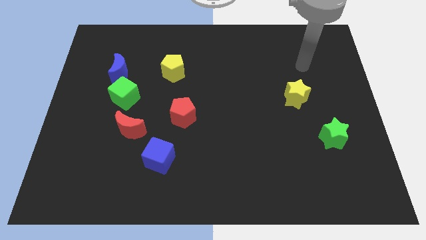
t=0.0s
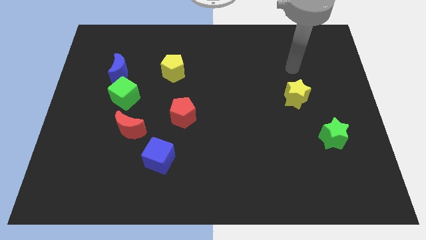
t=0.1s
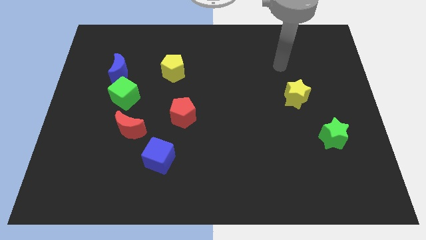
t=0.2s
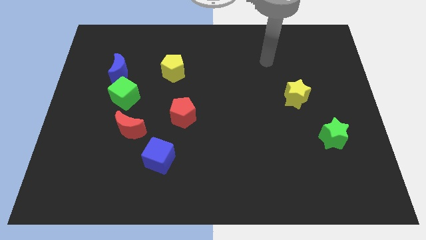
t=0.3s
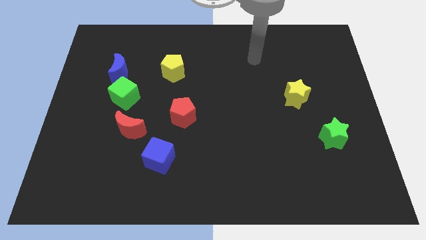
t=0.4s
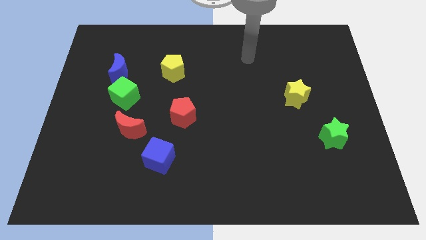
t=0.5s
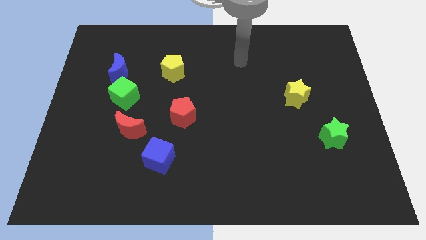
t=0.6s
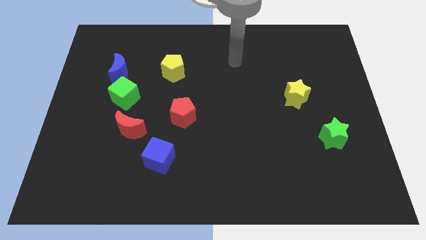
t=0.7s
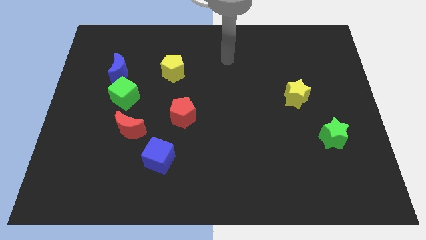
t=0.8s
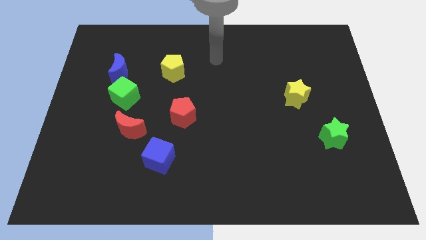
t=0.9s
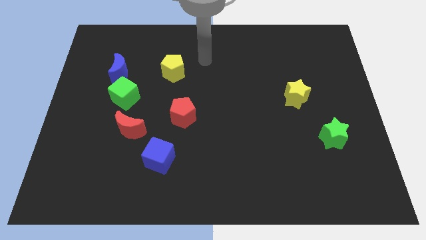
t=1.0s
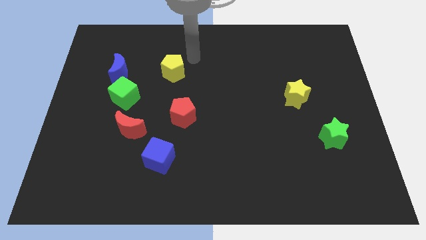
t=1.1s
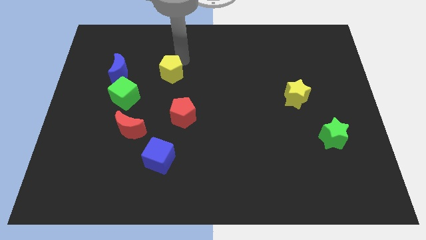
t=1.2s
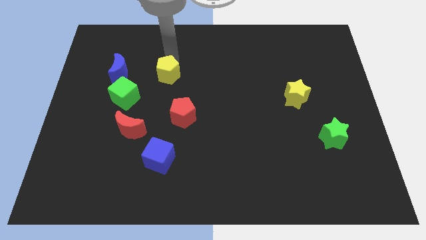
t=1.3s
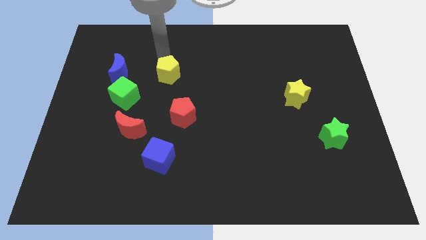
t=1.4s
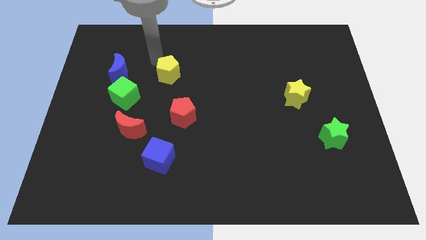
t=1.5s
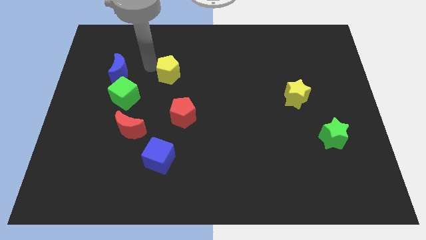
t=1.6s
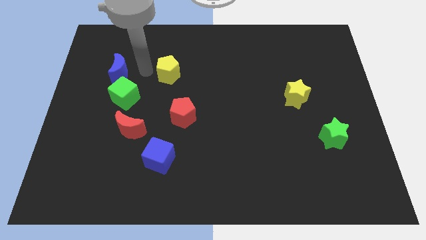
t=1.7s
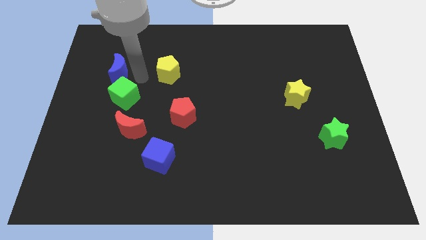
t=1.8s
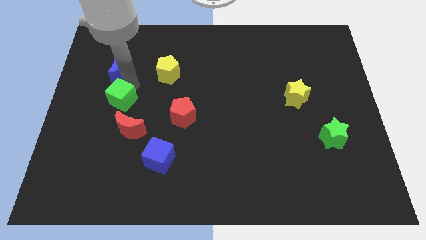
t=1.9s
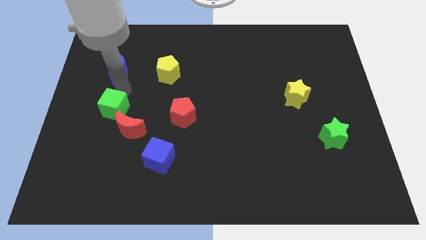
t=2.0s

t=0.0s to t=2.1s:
pull the blue moon apart from the green cube

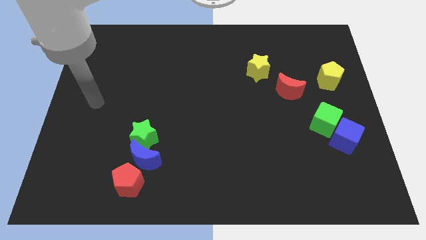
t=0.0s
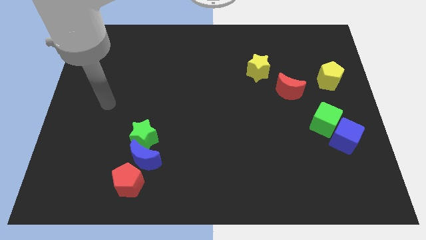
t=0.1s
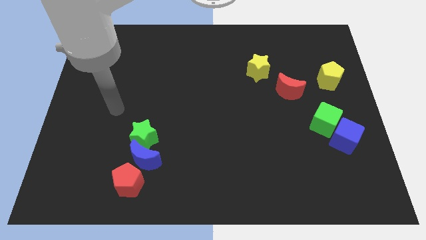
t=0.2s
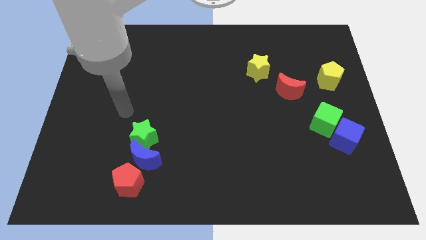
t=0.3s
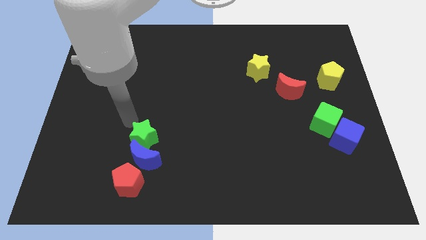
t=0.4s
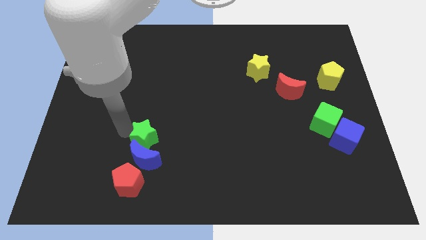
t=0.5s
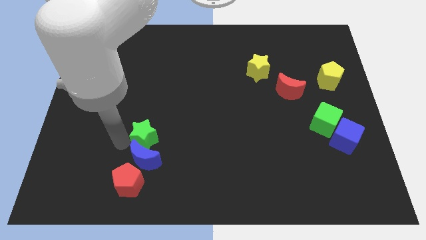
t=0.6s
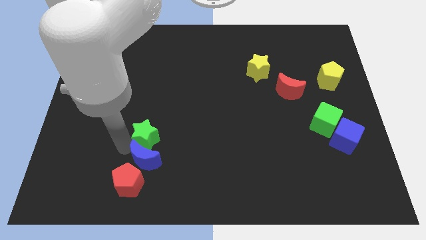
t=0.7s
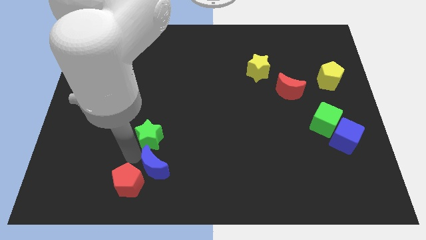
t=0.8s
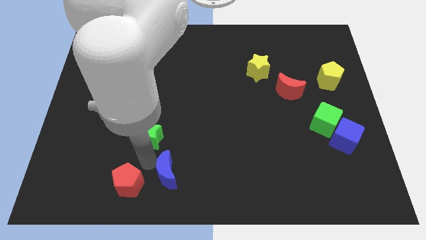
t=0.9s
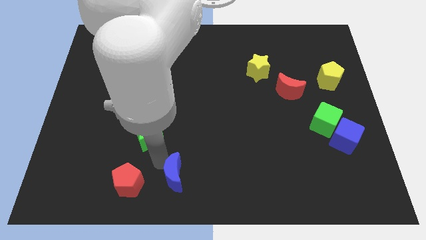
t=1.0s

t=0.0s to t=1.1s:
move the green star away from the blue moon

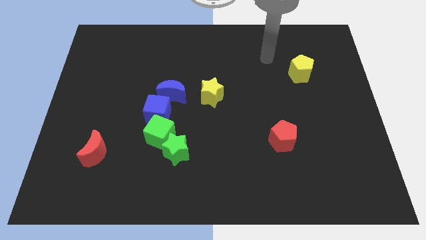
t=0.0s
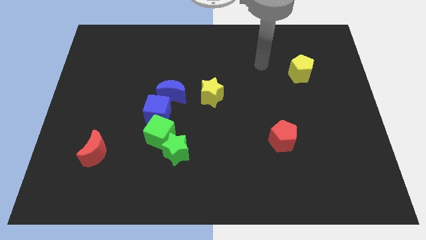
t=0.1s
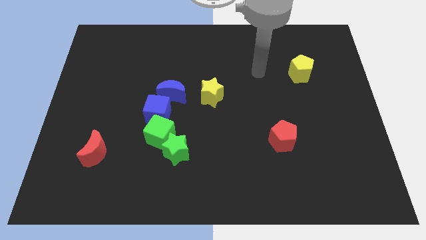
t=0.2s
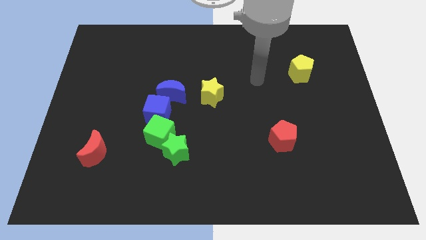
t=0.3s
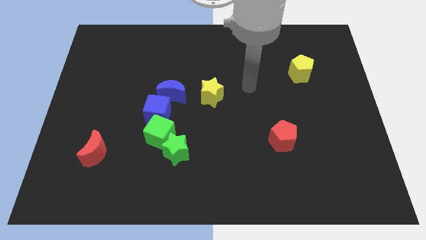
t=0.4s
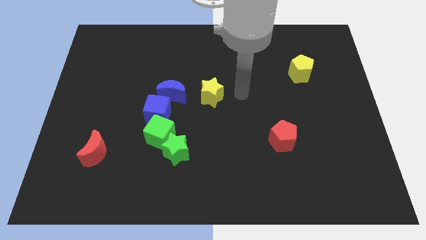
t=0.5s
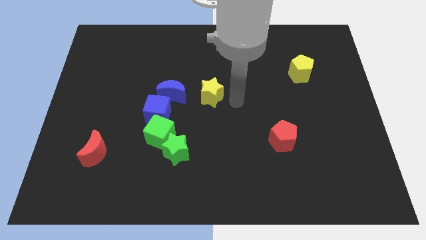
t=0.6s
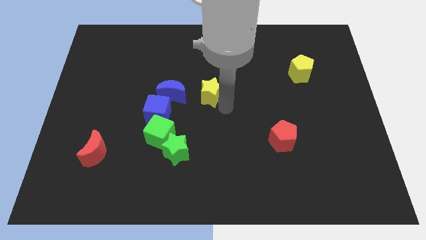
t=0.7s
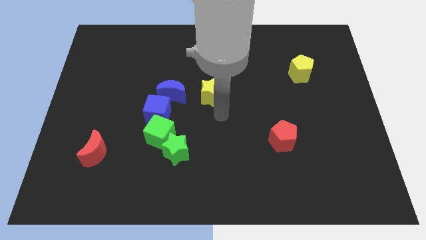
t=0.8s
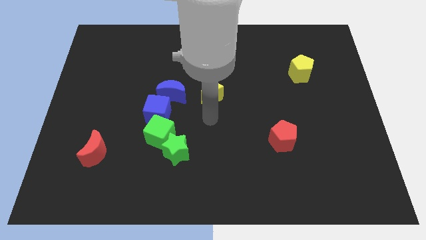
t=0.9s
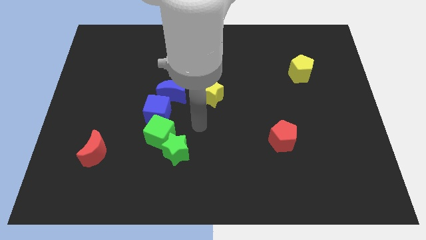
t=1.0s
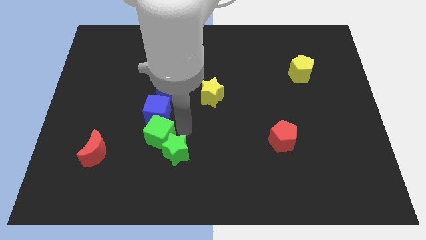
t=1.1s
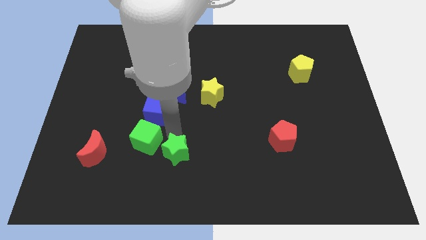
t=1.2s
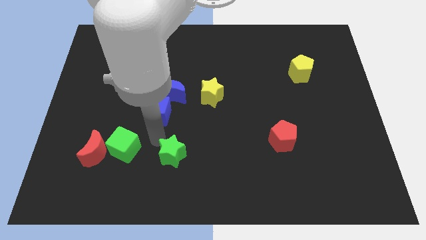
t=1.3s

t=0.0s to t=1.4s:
move the green star away from the green cube

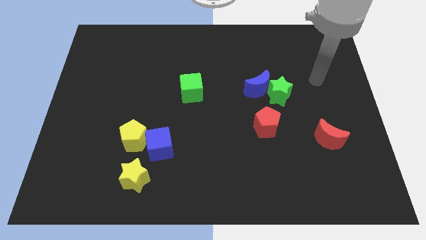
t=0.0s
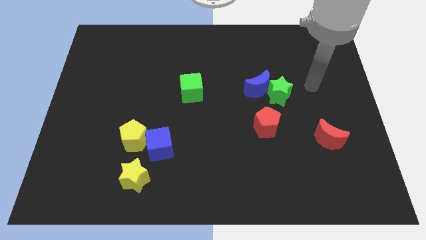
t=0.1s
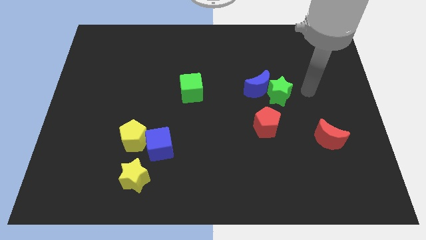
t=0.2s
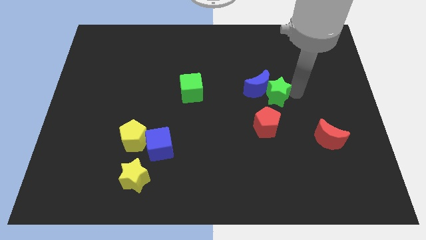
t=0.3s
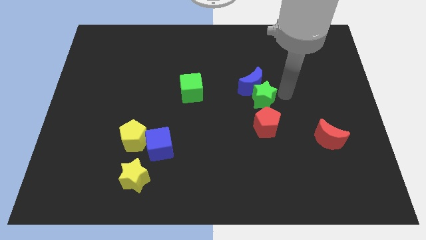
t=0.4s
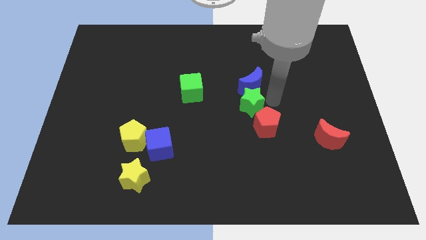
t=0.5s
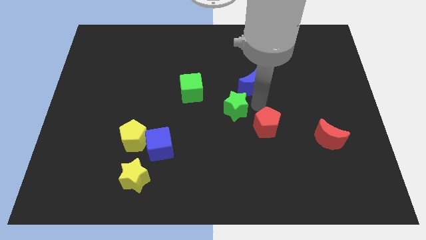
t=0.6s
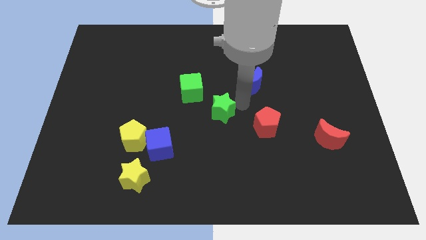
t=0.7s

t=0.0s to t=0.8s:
separate the blue moon from the green star

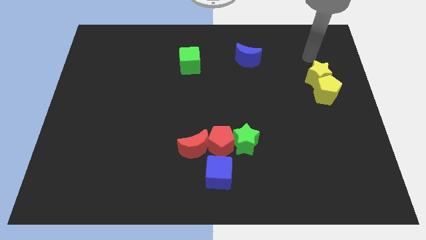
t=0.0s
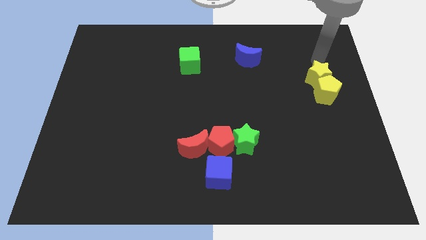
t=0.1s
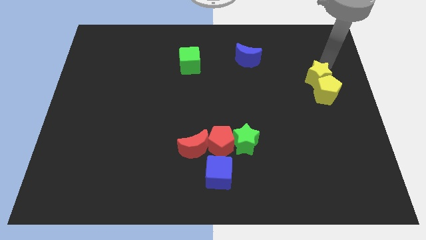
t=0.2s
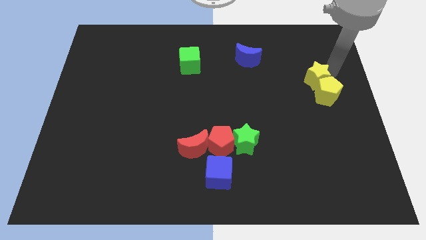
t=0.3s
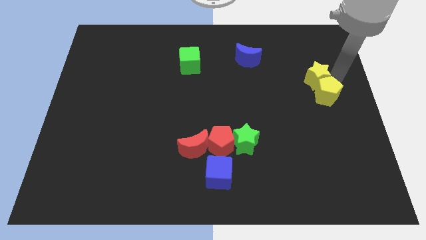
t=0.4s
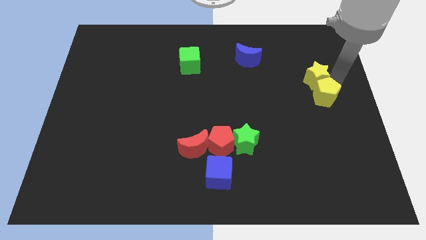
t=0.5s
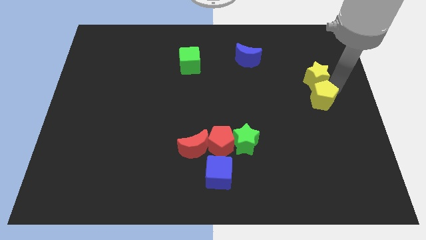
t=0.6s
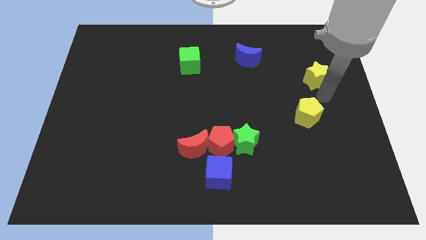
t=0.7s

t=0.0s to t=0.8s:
separate the yellow star from the yellow pentagon

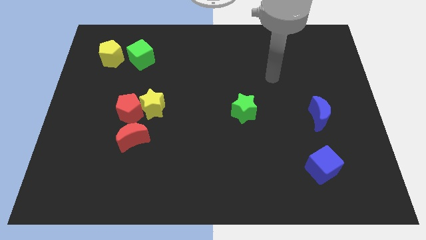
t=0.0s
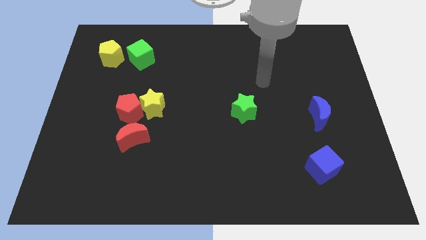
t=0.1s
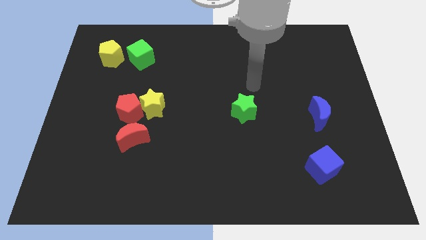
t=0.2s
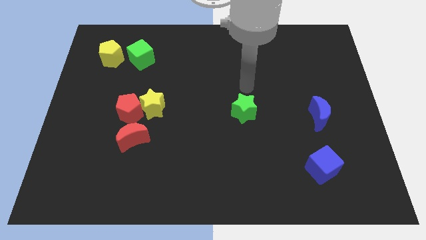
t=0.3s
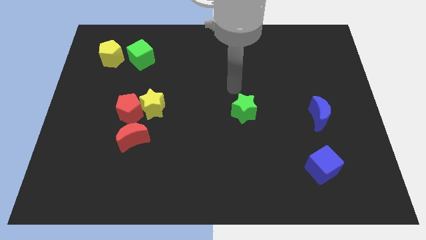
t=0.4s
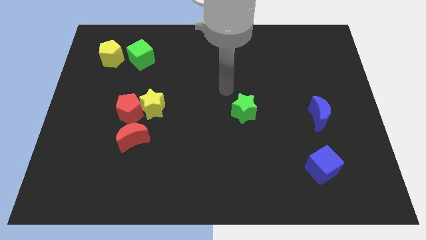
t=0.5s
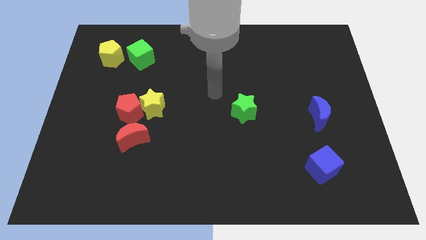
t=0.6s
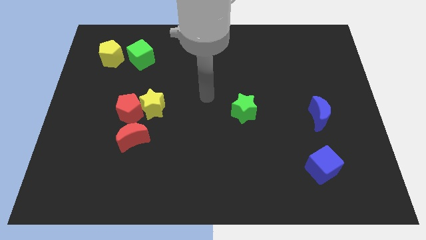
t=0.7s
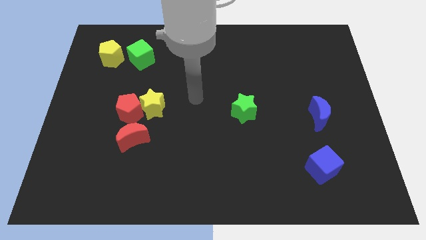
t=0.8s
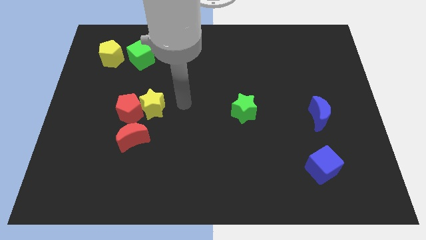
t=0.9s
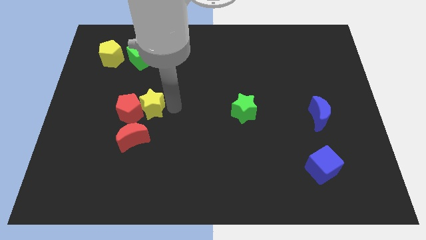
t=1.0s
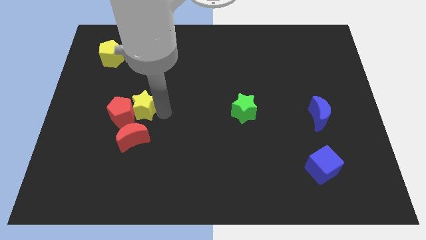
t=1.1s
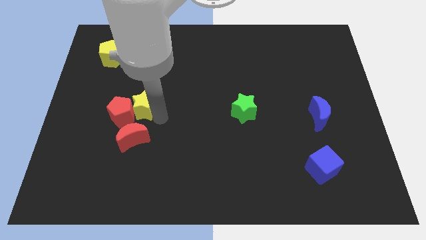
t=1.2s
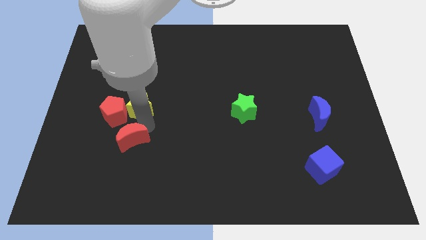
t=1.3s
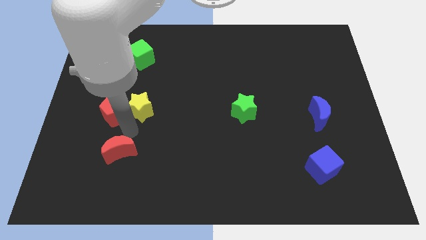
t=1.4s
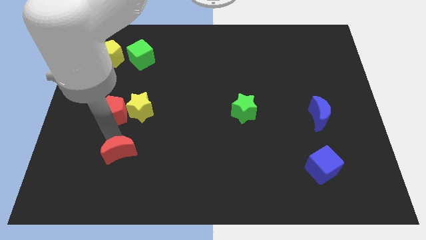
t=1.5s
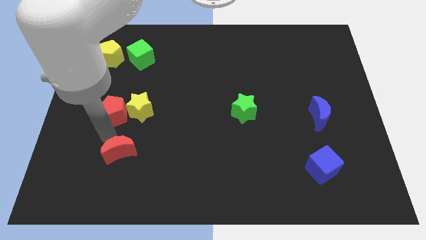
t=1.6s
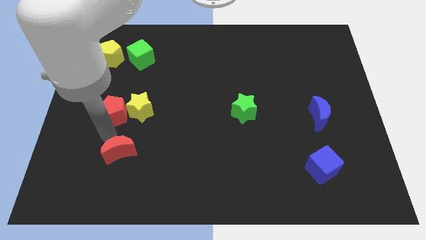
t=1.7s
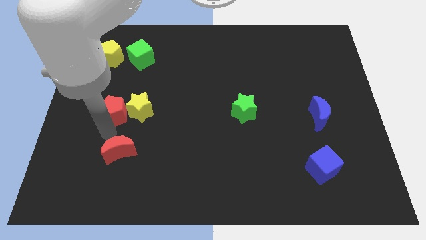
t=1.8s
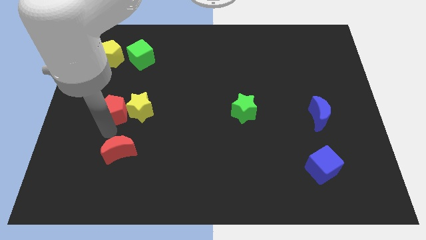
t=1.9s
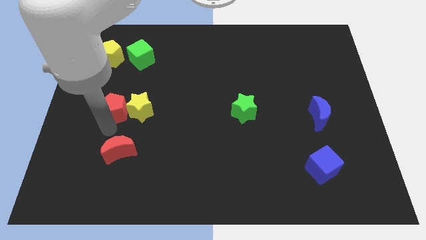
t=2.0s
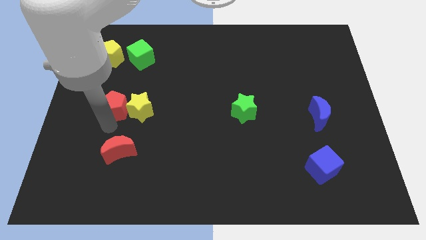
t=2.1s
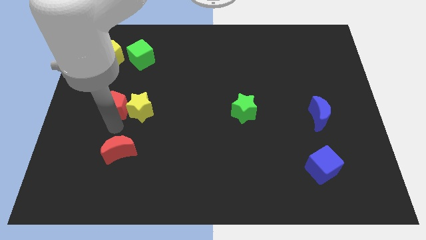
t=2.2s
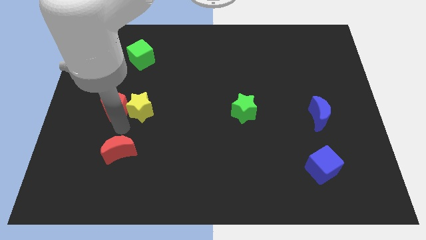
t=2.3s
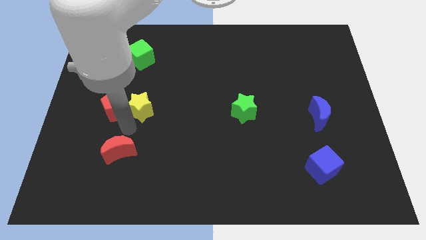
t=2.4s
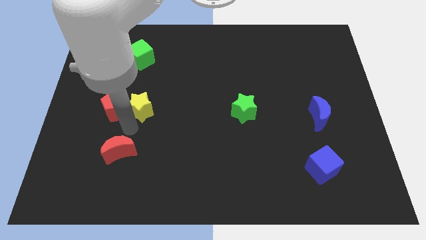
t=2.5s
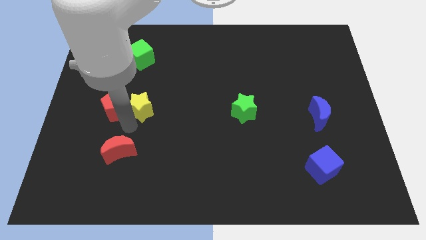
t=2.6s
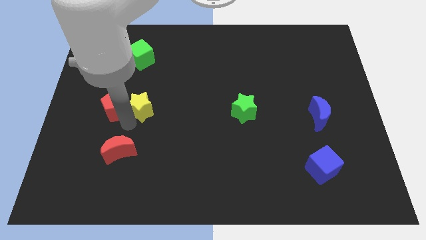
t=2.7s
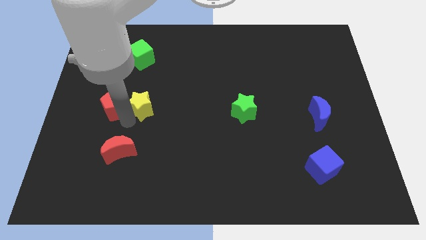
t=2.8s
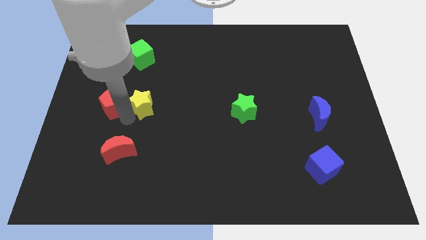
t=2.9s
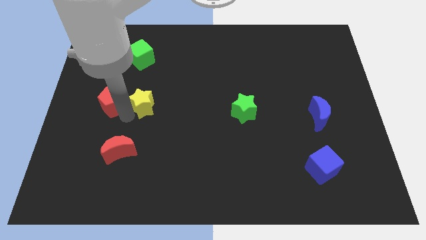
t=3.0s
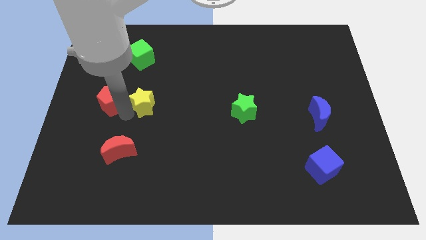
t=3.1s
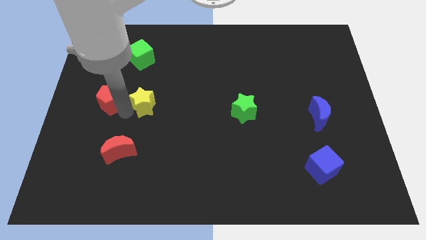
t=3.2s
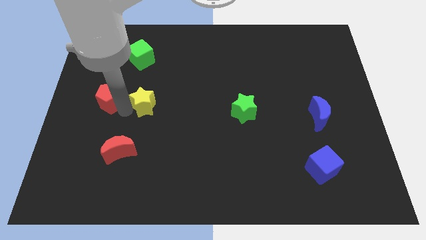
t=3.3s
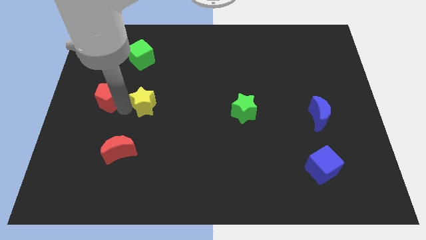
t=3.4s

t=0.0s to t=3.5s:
separate the red pentagon from the yellow star and red moon
